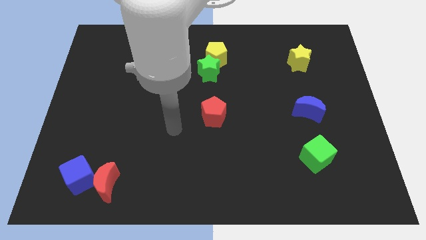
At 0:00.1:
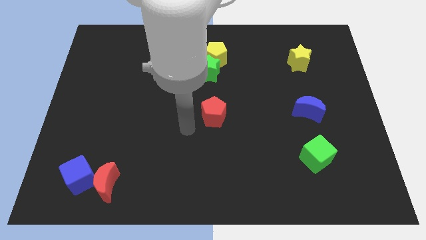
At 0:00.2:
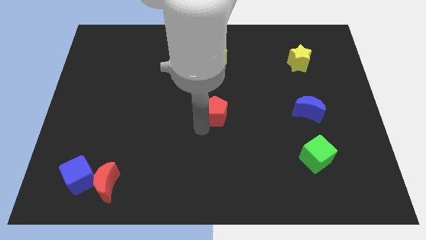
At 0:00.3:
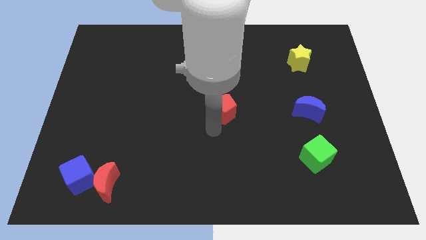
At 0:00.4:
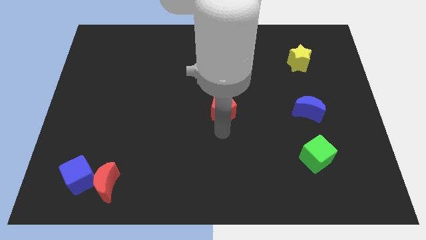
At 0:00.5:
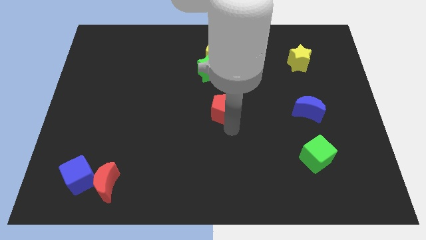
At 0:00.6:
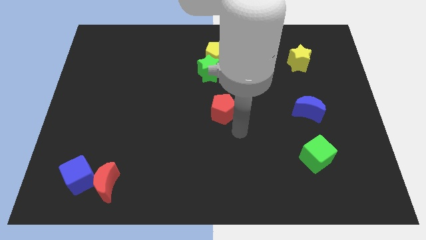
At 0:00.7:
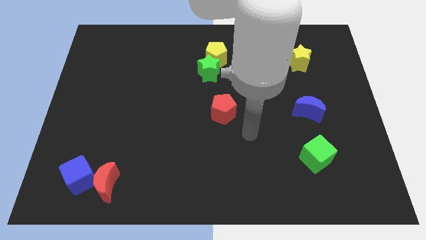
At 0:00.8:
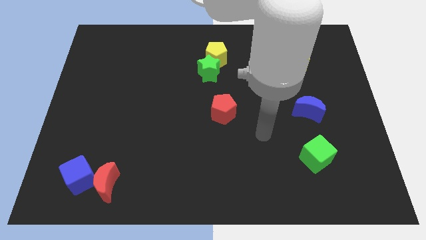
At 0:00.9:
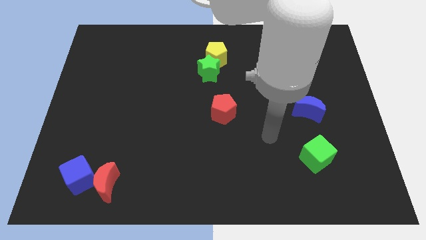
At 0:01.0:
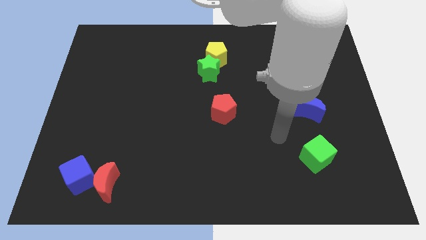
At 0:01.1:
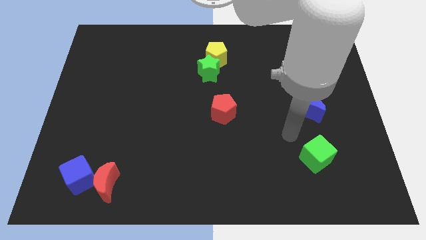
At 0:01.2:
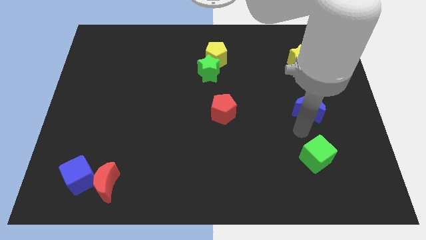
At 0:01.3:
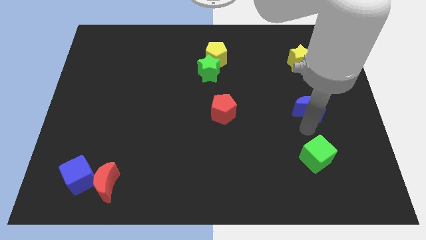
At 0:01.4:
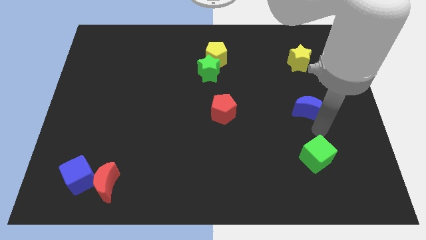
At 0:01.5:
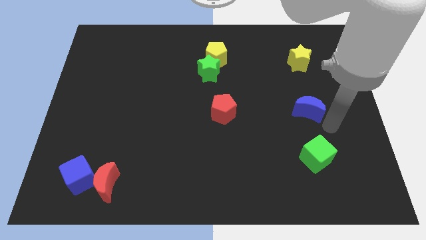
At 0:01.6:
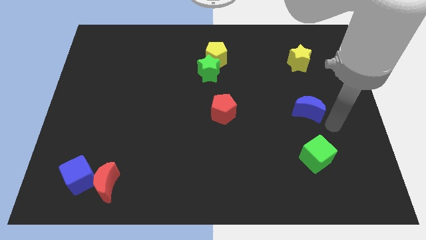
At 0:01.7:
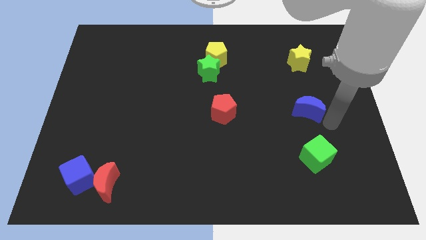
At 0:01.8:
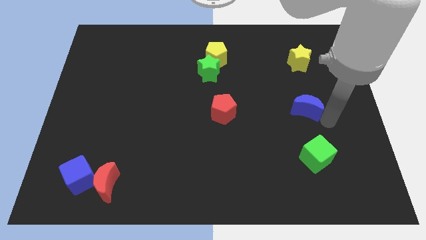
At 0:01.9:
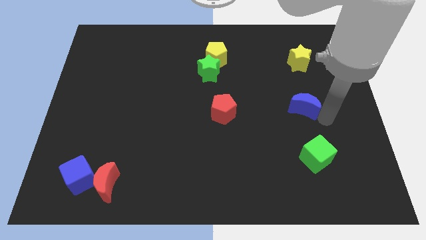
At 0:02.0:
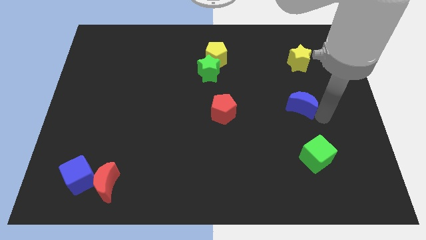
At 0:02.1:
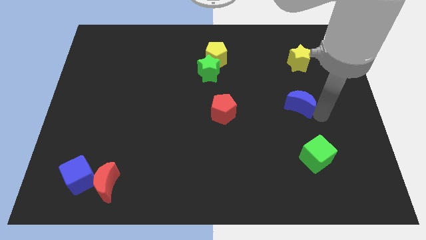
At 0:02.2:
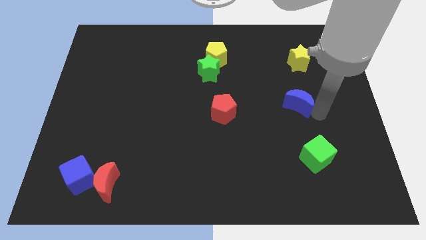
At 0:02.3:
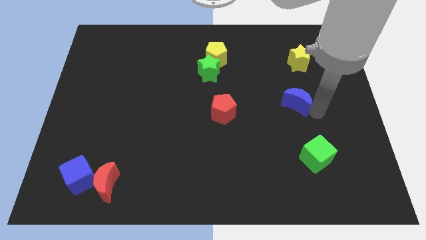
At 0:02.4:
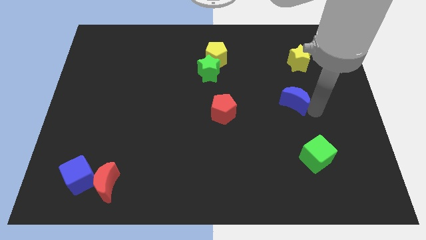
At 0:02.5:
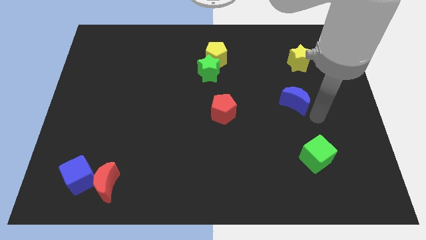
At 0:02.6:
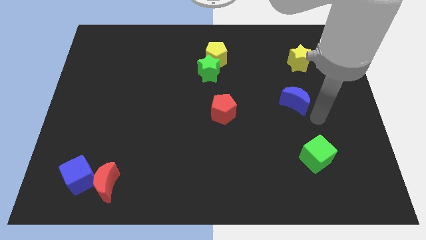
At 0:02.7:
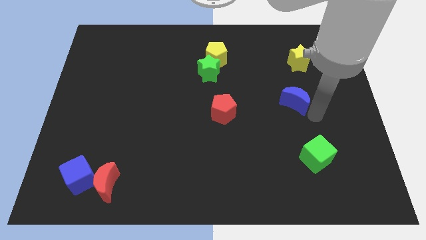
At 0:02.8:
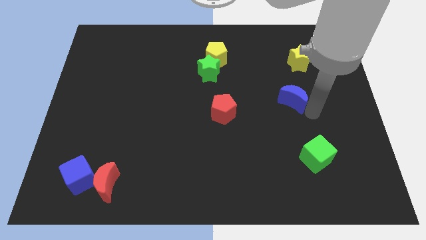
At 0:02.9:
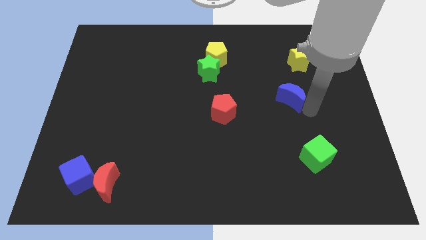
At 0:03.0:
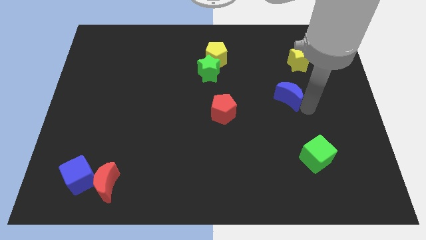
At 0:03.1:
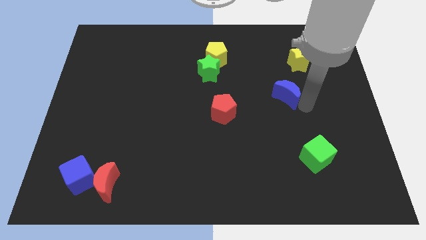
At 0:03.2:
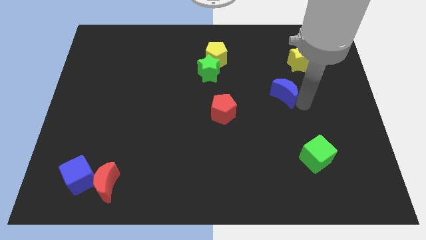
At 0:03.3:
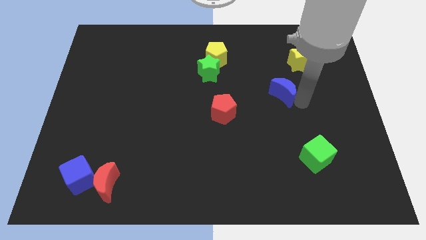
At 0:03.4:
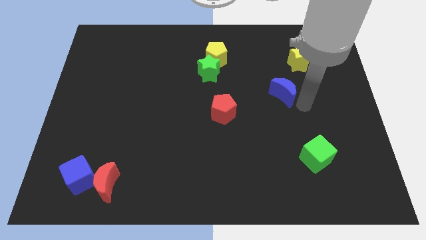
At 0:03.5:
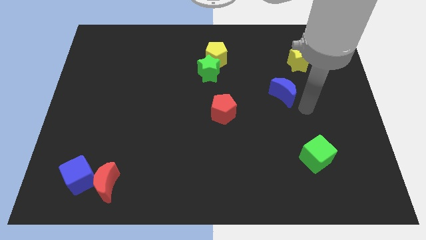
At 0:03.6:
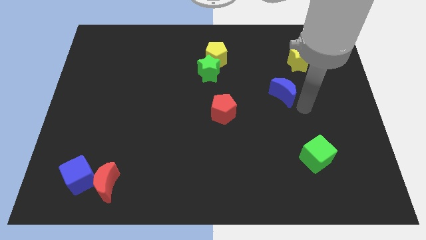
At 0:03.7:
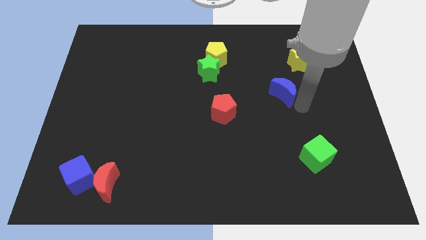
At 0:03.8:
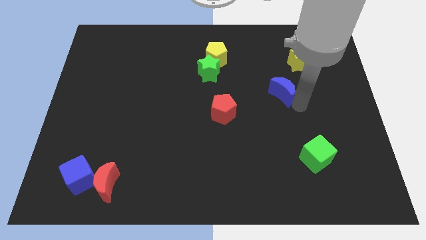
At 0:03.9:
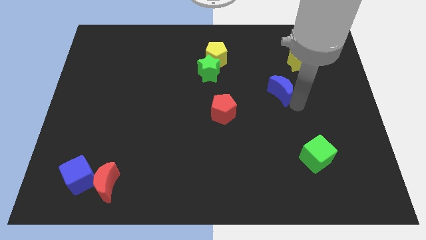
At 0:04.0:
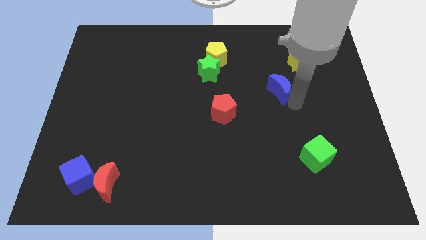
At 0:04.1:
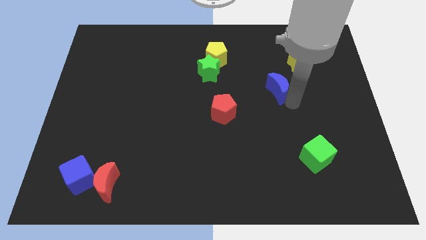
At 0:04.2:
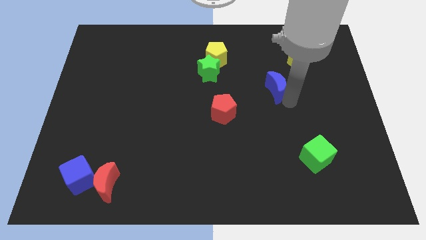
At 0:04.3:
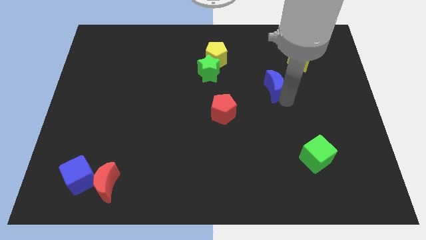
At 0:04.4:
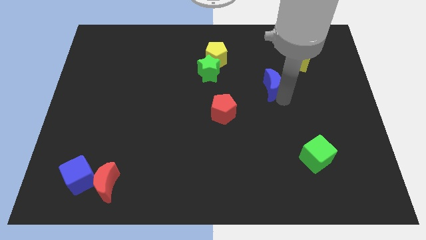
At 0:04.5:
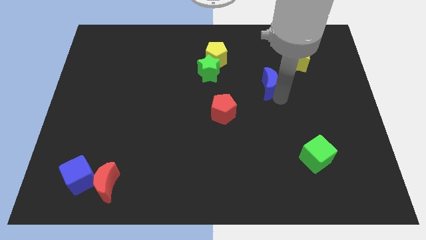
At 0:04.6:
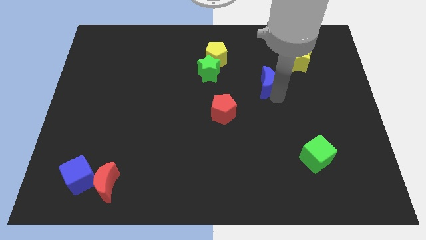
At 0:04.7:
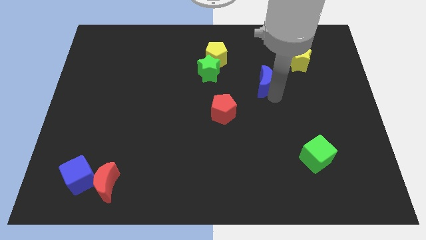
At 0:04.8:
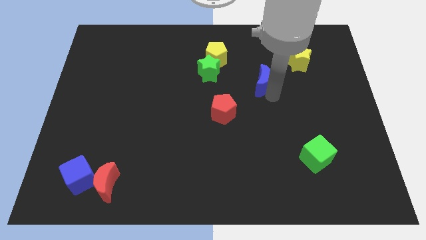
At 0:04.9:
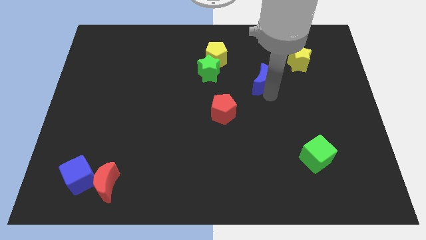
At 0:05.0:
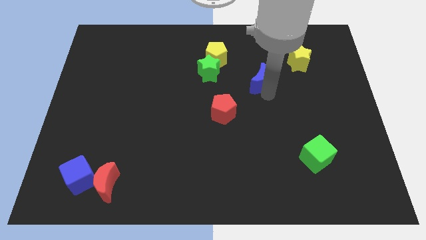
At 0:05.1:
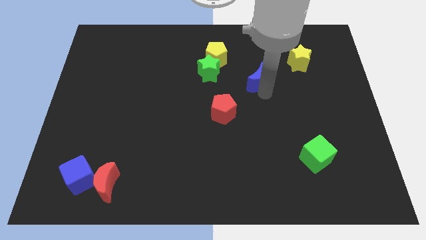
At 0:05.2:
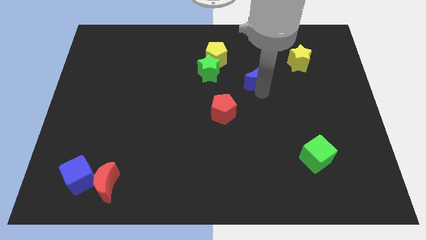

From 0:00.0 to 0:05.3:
move the blue moon diagonally down and to the right of the yellow pentagon

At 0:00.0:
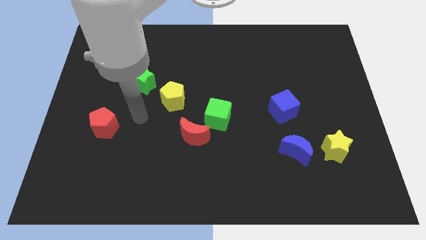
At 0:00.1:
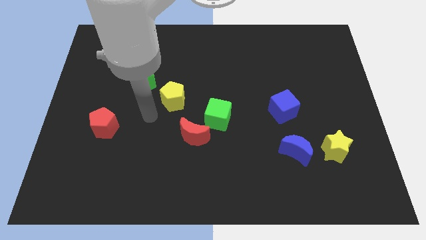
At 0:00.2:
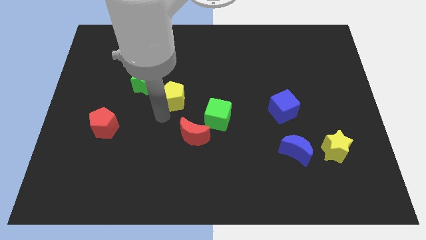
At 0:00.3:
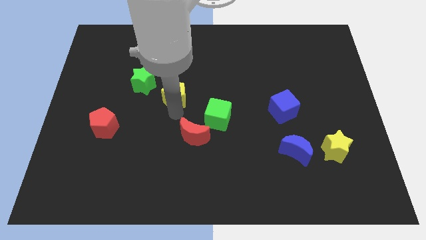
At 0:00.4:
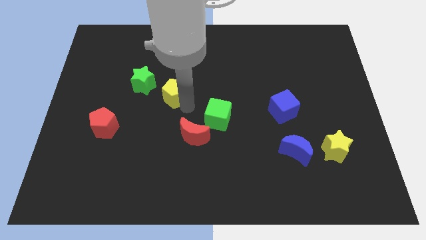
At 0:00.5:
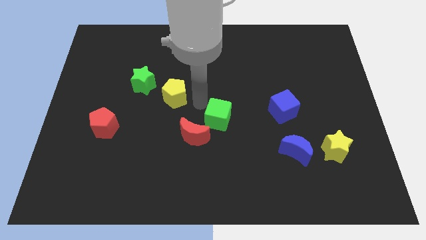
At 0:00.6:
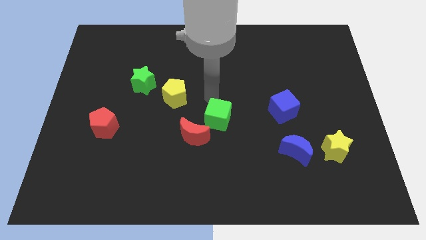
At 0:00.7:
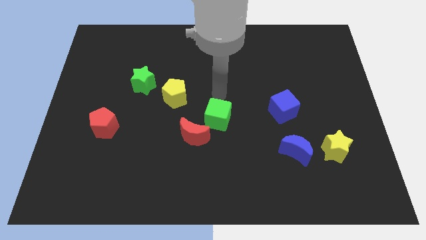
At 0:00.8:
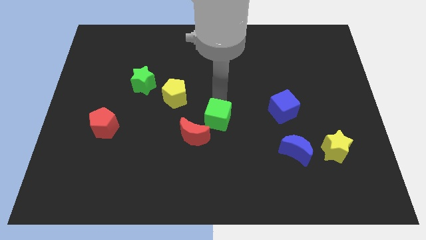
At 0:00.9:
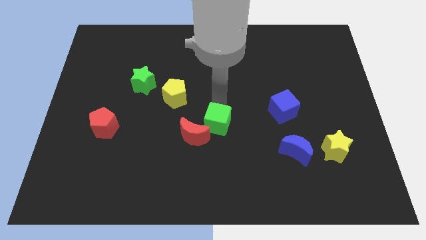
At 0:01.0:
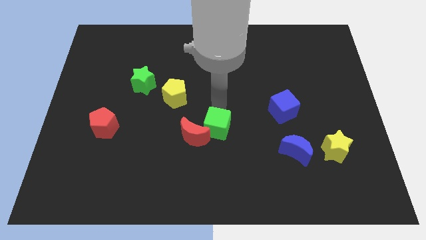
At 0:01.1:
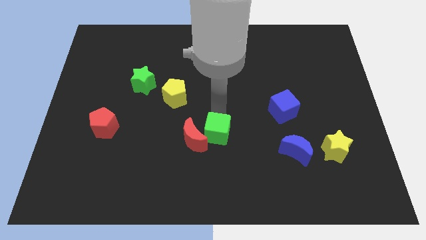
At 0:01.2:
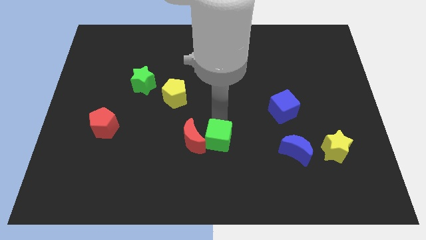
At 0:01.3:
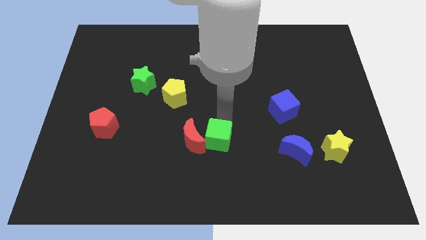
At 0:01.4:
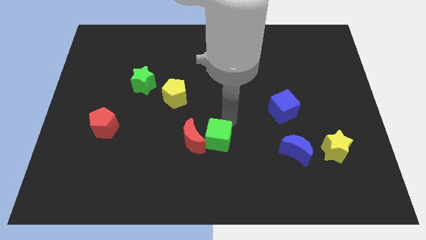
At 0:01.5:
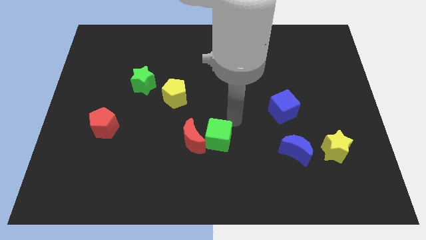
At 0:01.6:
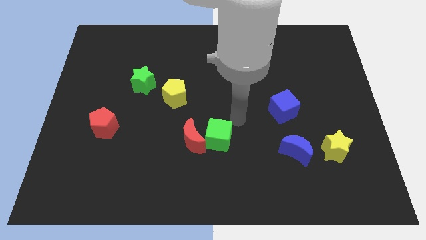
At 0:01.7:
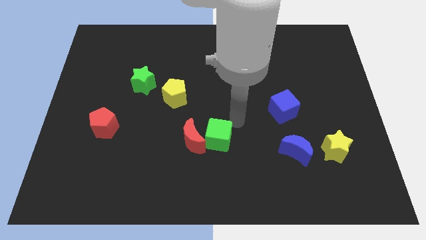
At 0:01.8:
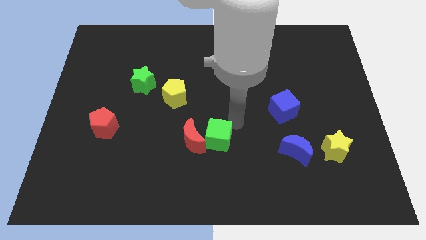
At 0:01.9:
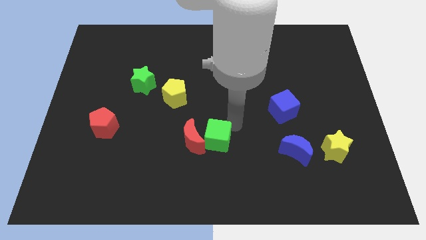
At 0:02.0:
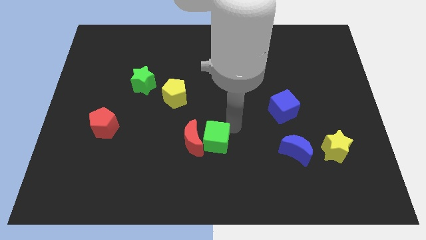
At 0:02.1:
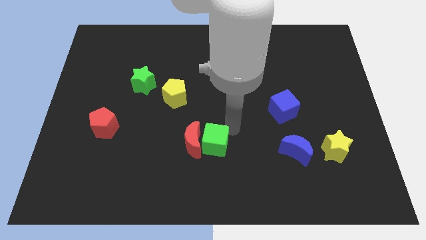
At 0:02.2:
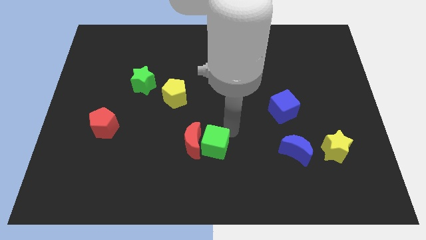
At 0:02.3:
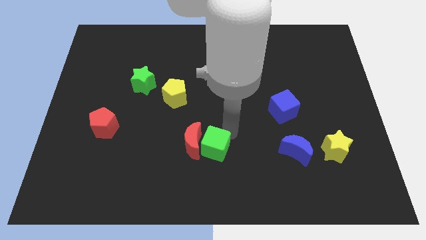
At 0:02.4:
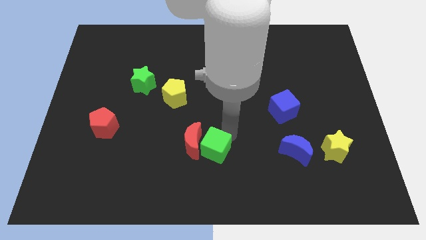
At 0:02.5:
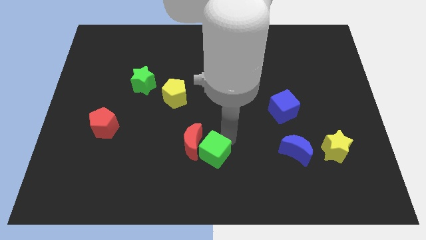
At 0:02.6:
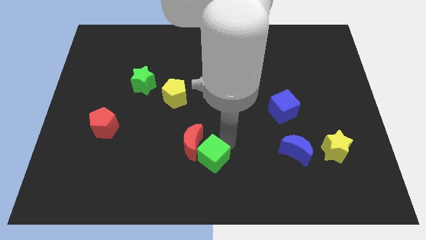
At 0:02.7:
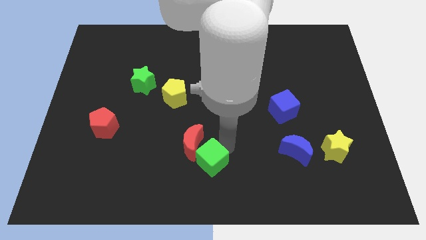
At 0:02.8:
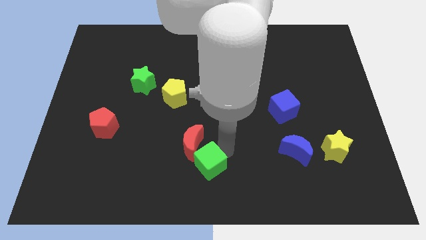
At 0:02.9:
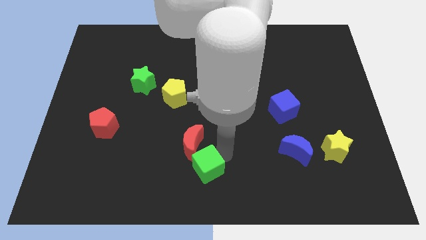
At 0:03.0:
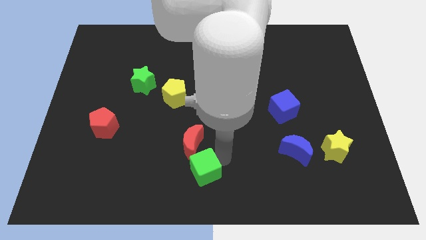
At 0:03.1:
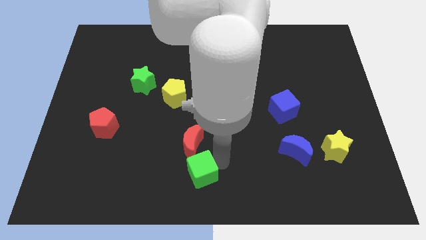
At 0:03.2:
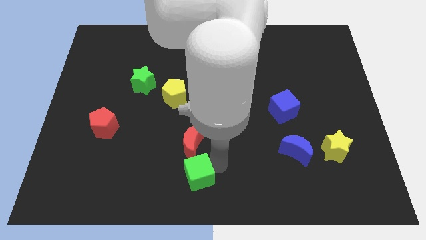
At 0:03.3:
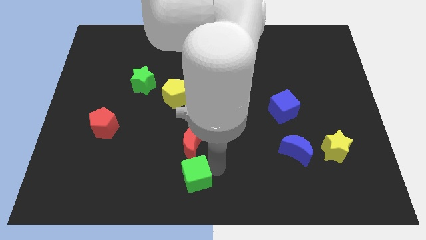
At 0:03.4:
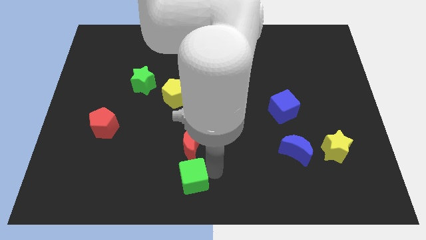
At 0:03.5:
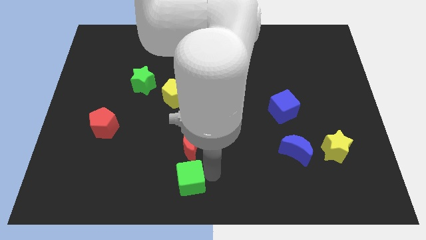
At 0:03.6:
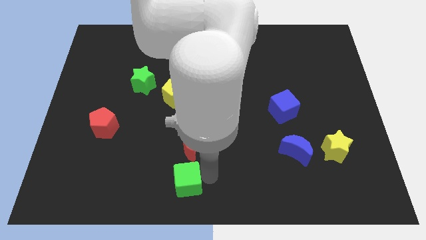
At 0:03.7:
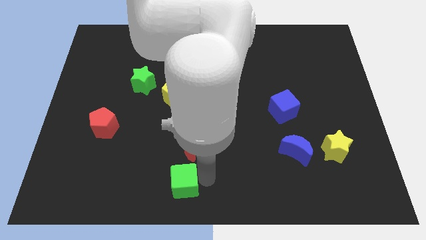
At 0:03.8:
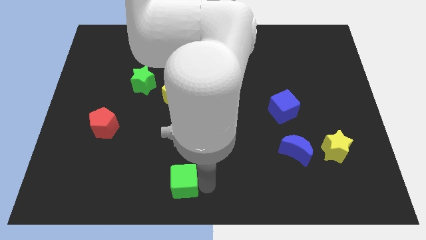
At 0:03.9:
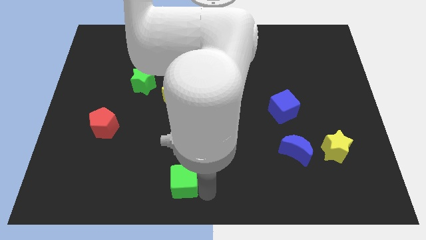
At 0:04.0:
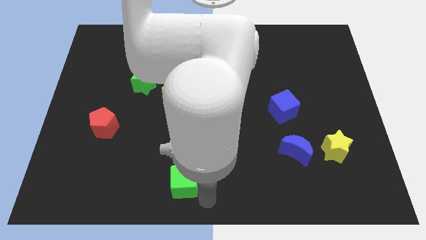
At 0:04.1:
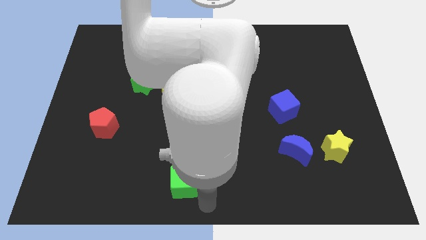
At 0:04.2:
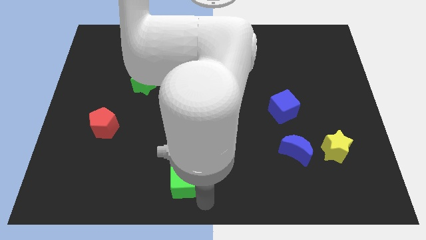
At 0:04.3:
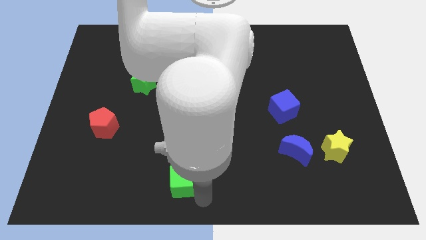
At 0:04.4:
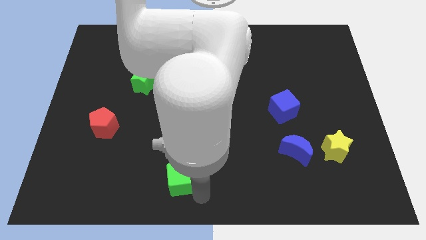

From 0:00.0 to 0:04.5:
slide the green cube diagonally down and to the left of the red moon